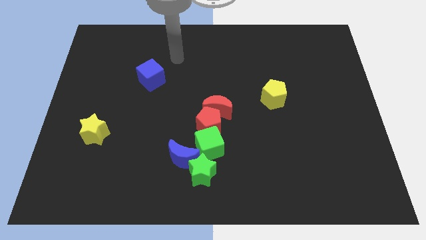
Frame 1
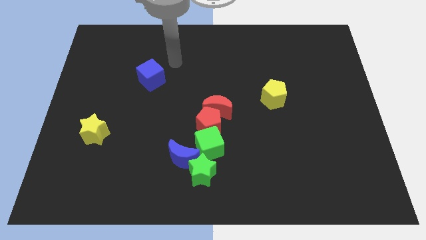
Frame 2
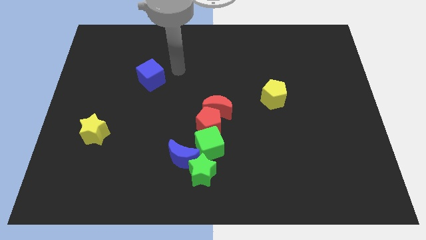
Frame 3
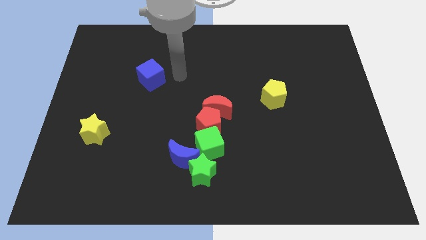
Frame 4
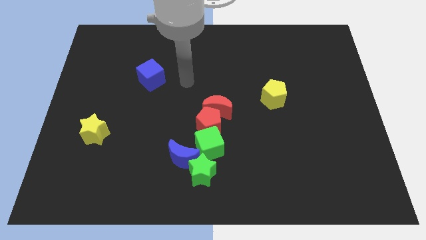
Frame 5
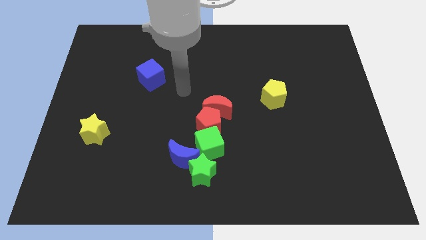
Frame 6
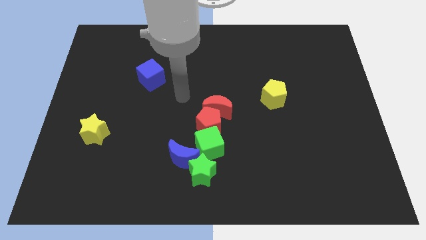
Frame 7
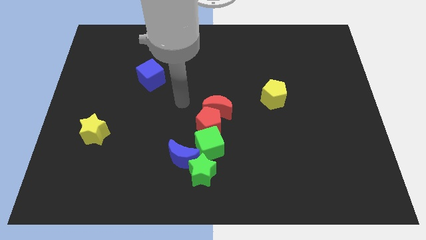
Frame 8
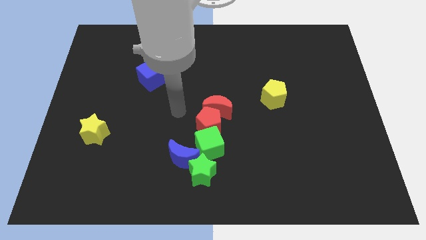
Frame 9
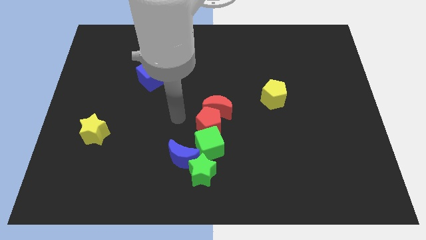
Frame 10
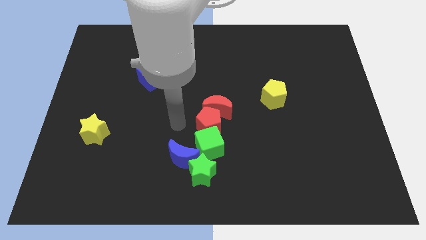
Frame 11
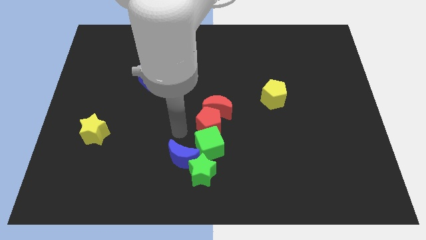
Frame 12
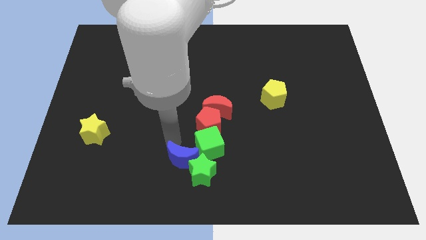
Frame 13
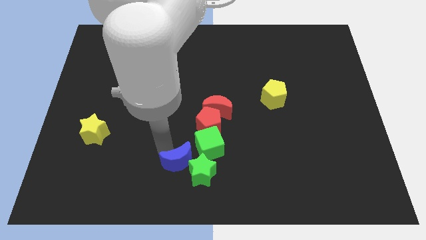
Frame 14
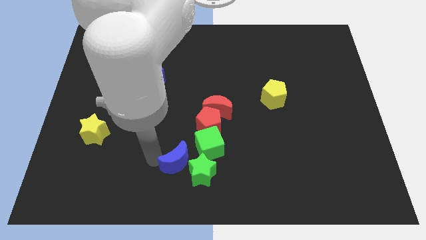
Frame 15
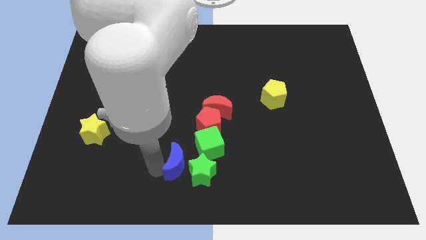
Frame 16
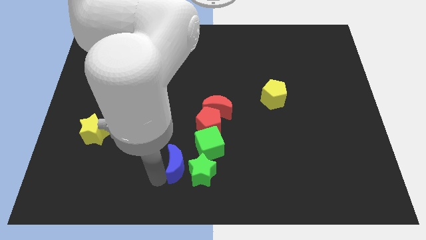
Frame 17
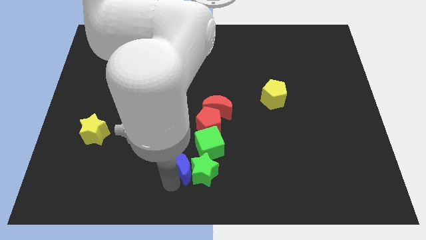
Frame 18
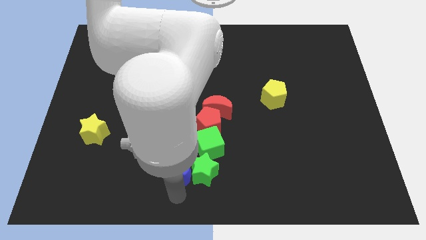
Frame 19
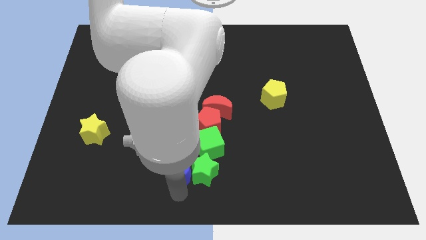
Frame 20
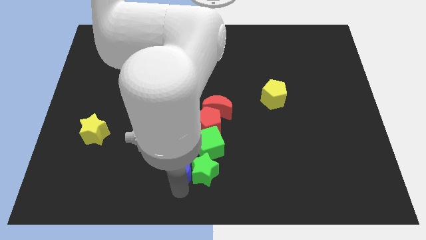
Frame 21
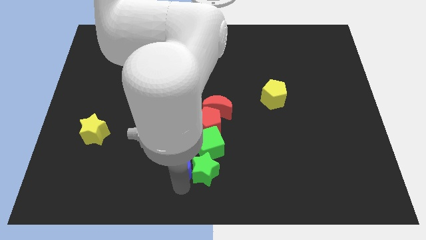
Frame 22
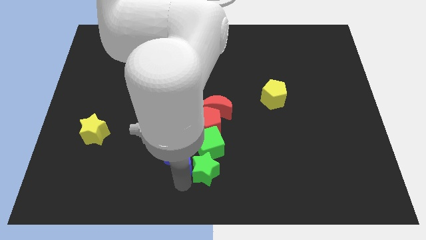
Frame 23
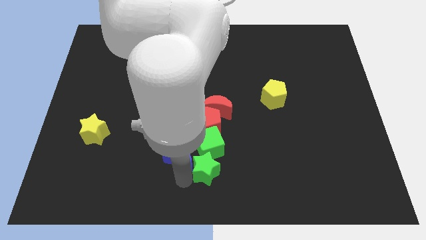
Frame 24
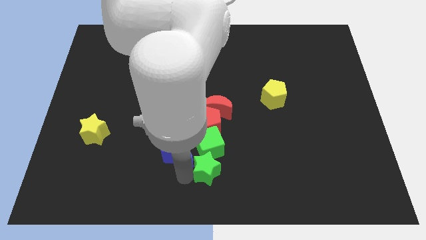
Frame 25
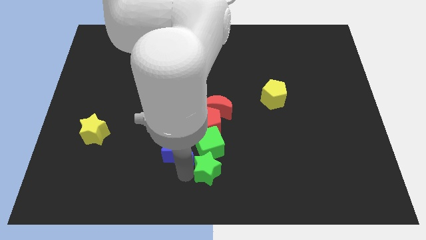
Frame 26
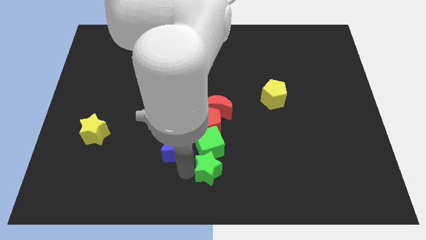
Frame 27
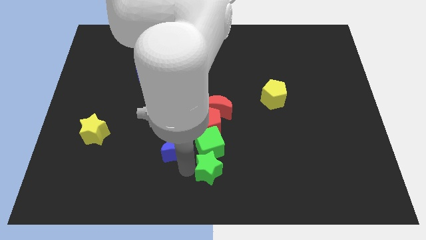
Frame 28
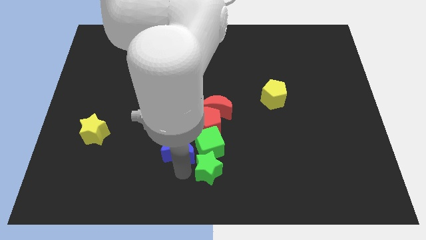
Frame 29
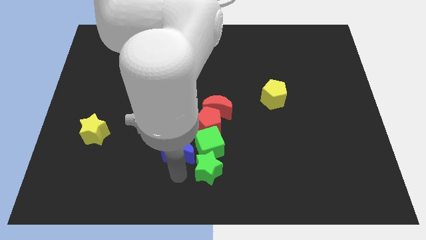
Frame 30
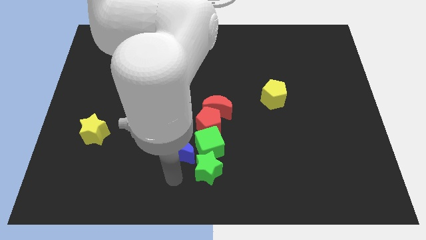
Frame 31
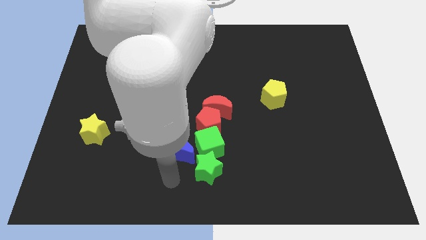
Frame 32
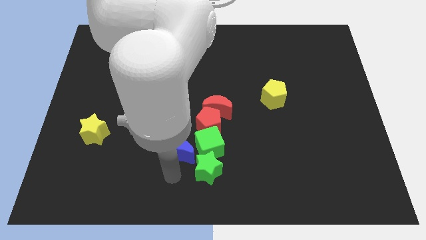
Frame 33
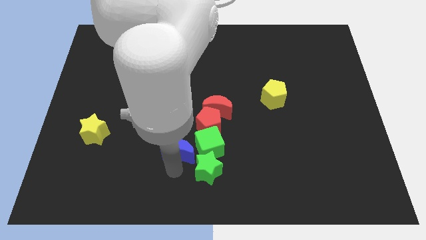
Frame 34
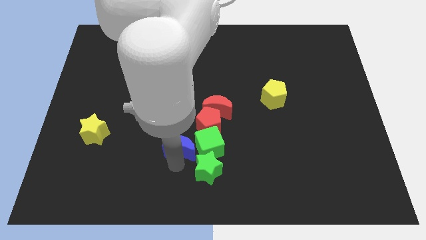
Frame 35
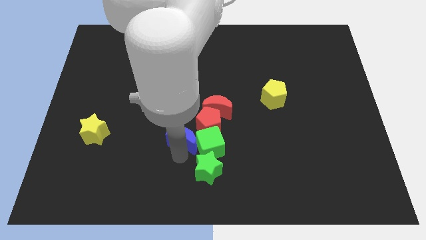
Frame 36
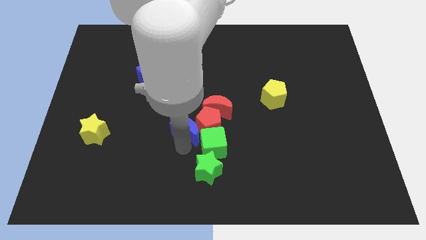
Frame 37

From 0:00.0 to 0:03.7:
move the blue moon up somewhat

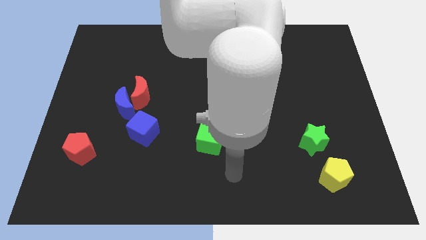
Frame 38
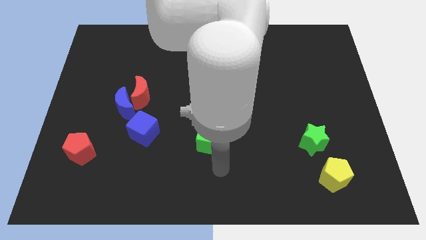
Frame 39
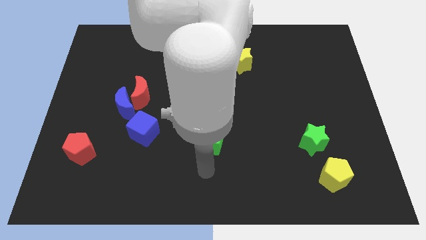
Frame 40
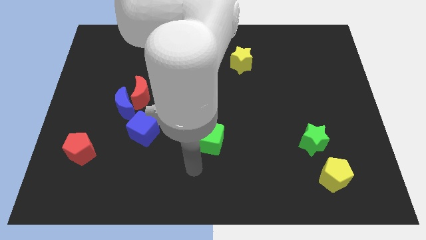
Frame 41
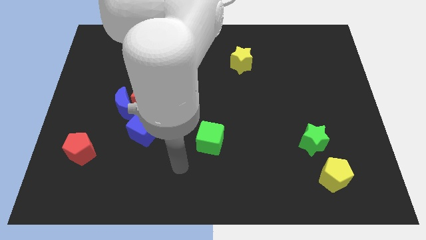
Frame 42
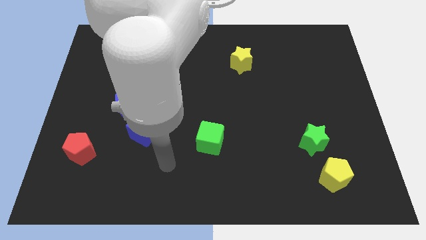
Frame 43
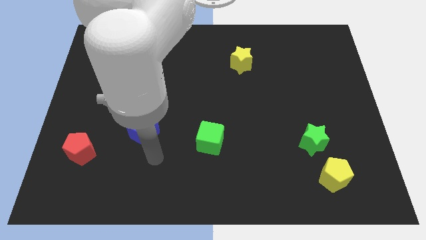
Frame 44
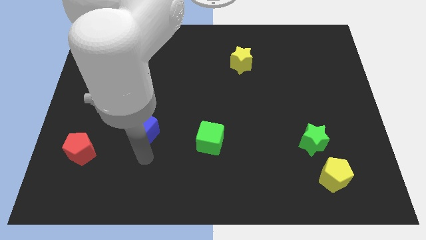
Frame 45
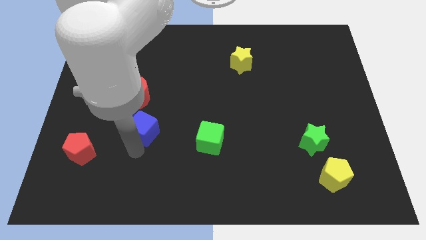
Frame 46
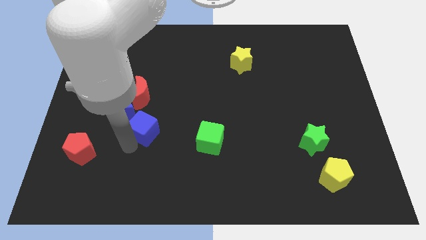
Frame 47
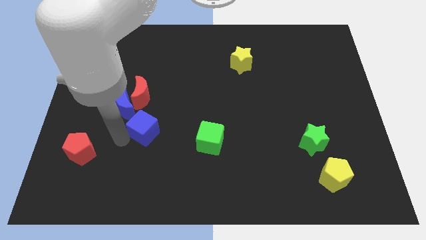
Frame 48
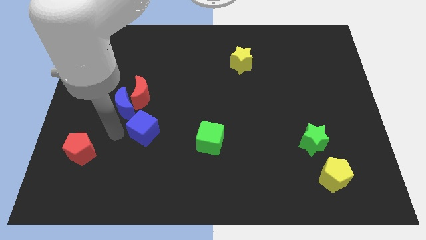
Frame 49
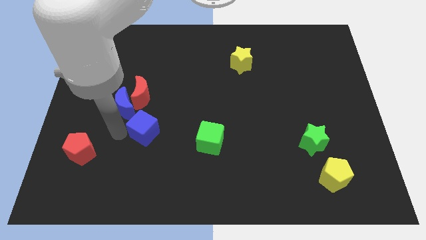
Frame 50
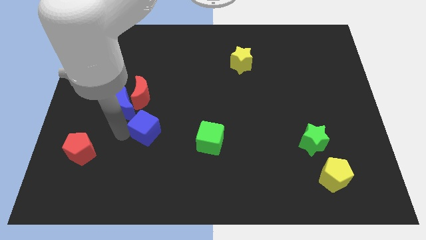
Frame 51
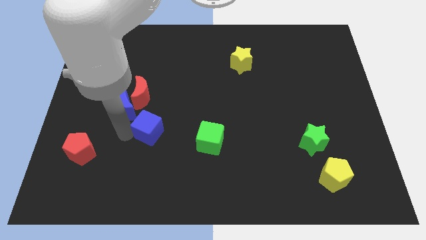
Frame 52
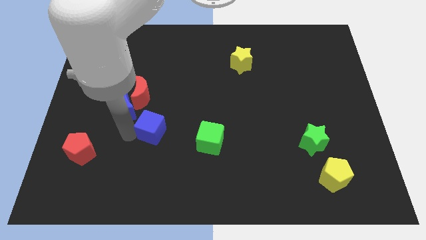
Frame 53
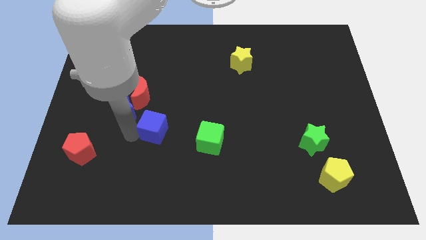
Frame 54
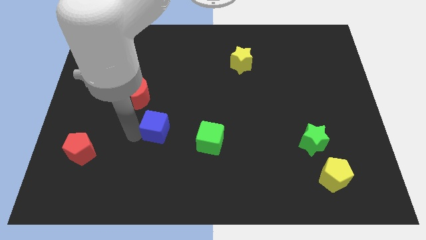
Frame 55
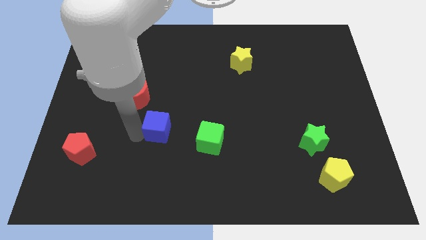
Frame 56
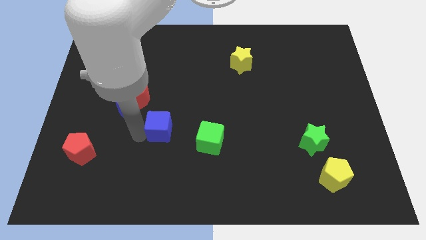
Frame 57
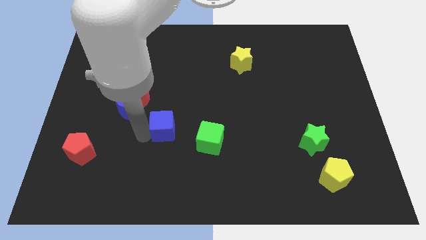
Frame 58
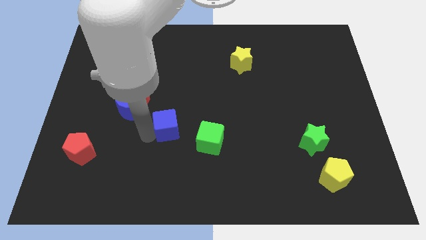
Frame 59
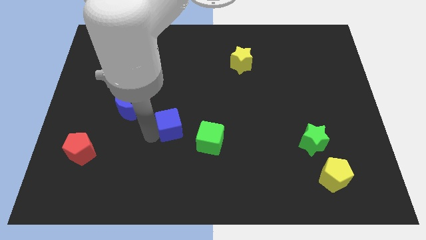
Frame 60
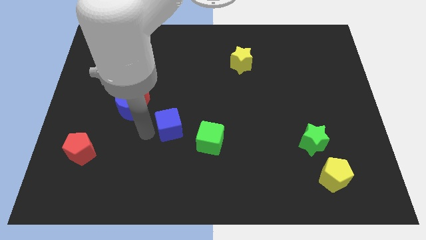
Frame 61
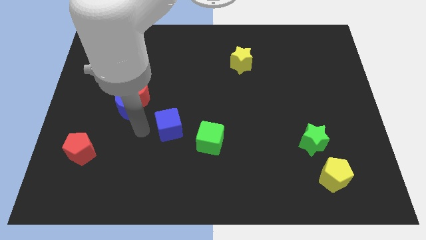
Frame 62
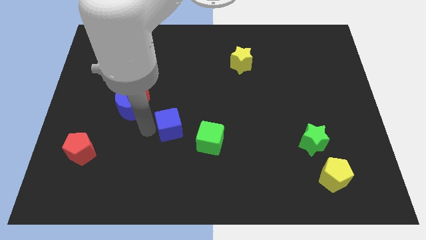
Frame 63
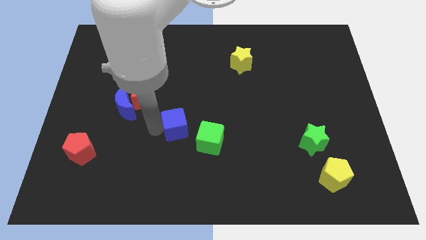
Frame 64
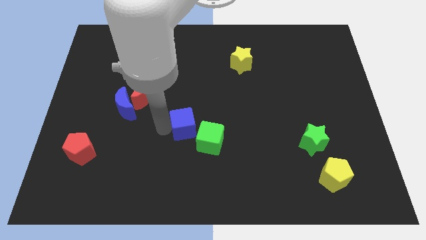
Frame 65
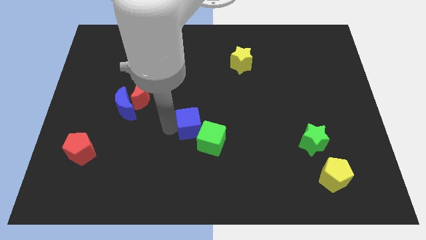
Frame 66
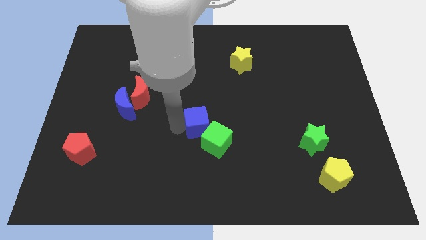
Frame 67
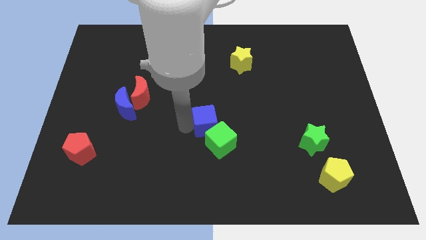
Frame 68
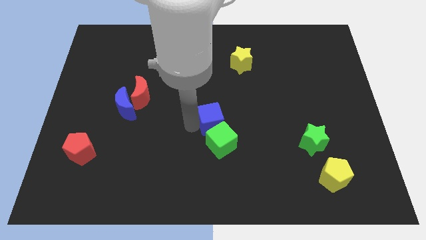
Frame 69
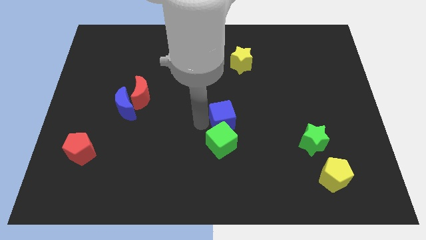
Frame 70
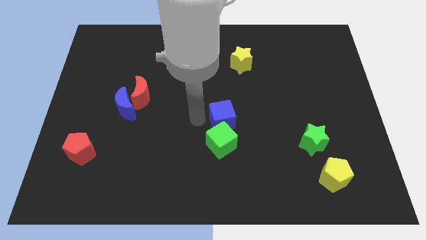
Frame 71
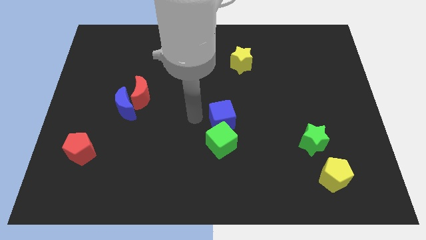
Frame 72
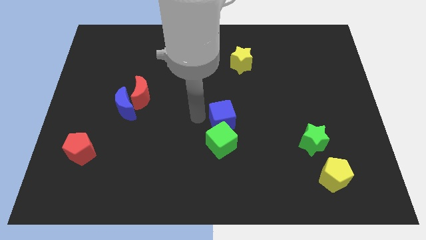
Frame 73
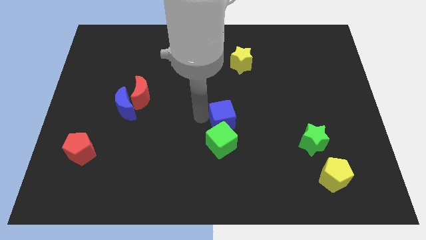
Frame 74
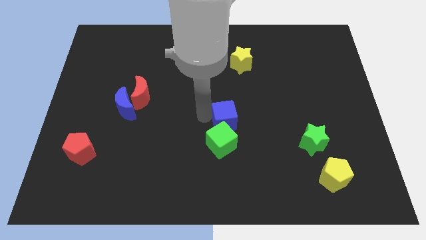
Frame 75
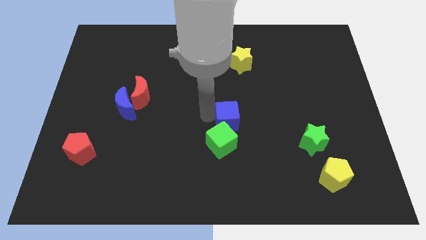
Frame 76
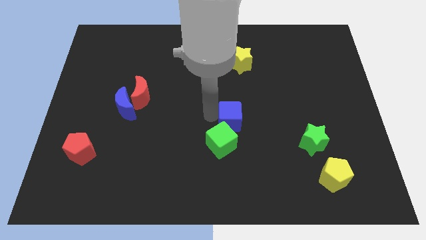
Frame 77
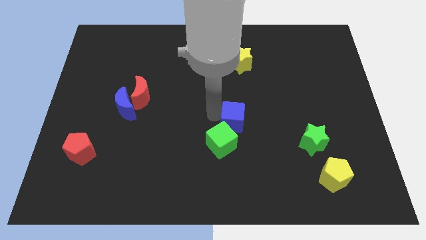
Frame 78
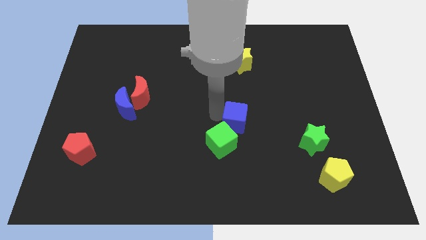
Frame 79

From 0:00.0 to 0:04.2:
push the blue cube to the right
